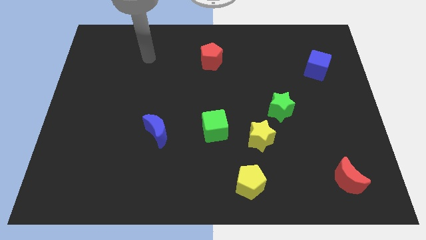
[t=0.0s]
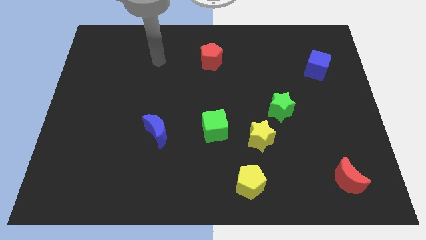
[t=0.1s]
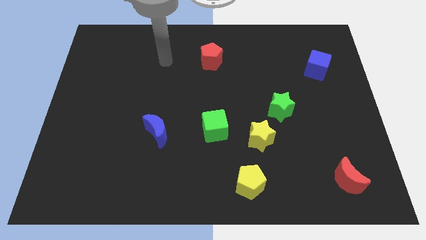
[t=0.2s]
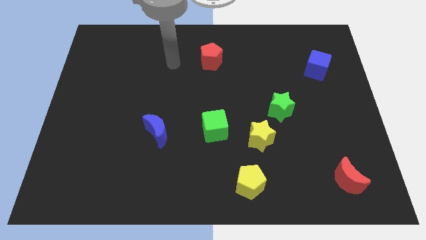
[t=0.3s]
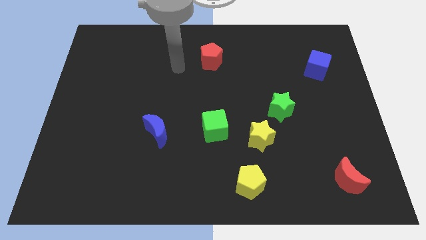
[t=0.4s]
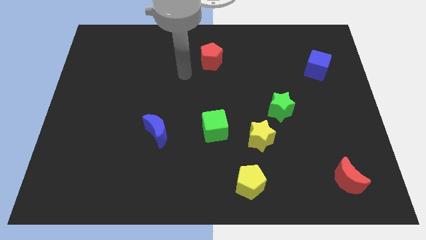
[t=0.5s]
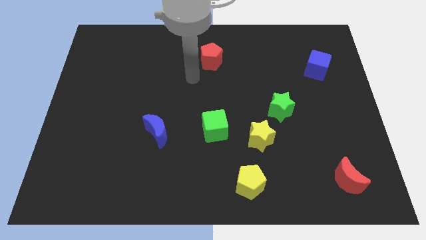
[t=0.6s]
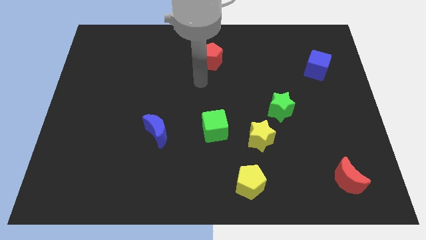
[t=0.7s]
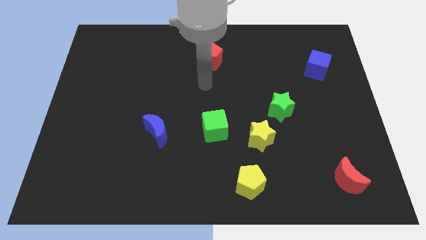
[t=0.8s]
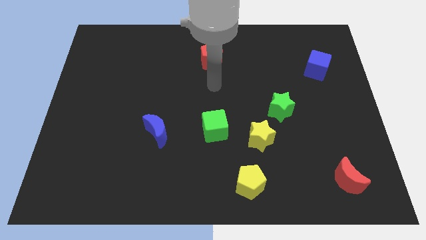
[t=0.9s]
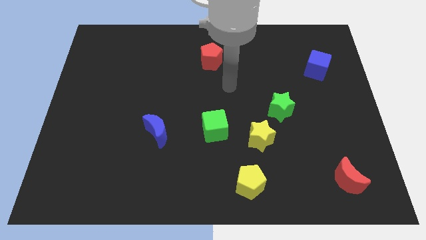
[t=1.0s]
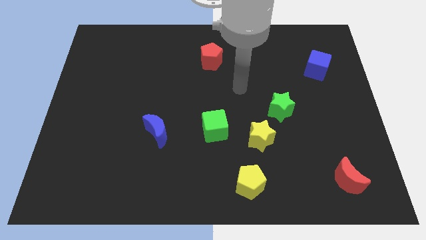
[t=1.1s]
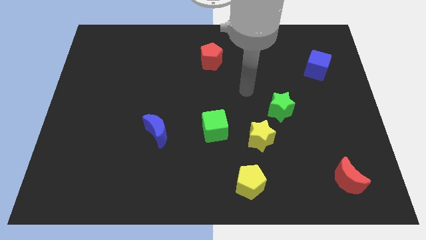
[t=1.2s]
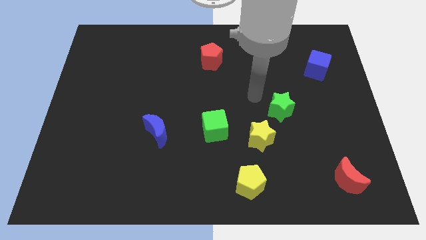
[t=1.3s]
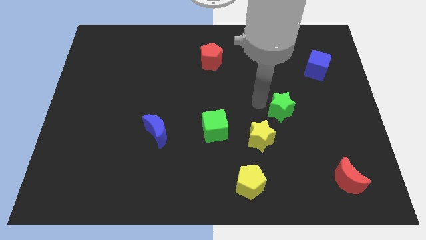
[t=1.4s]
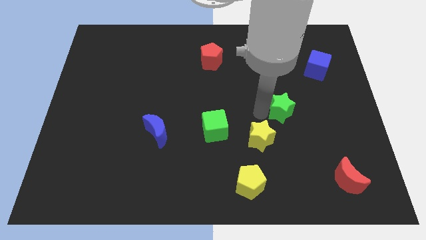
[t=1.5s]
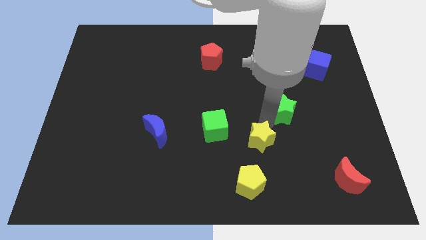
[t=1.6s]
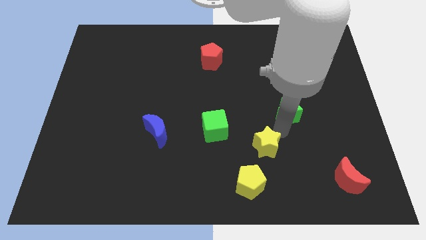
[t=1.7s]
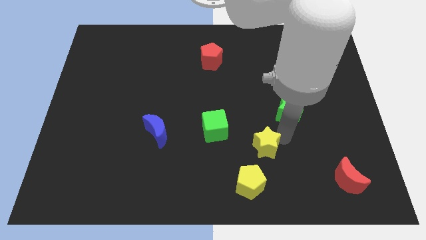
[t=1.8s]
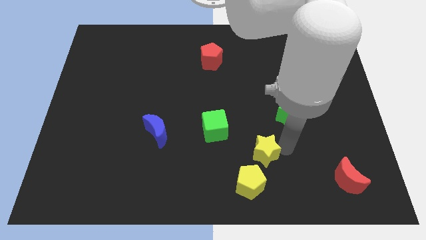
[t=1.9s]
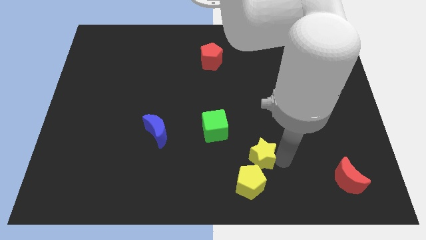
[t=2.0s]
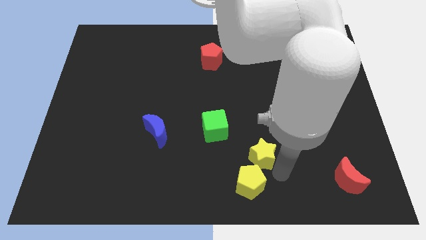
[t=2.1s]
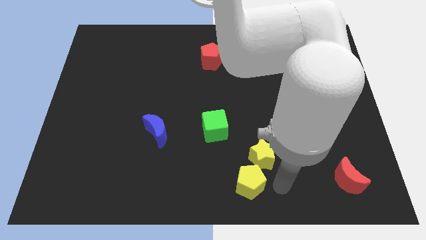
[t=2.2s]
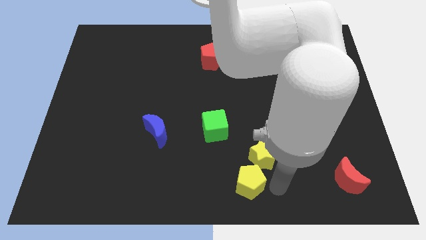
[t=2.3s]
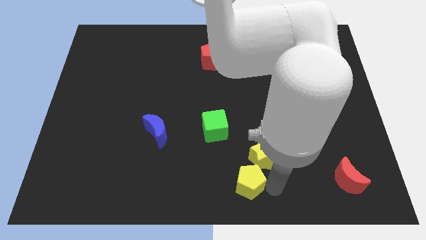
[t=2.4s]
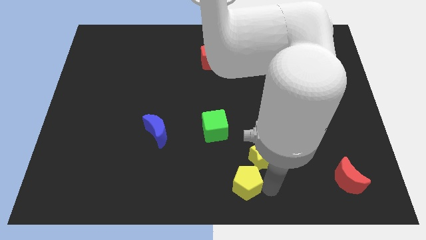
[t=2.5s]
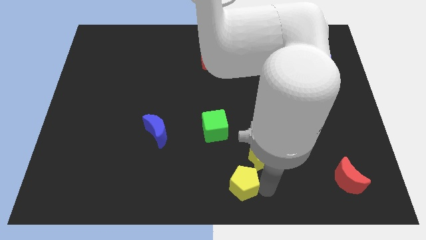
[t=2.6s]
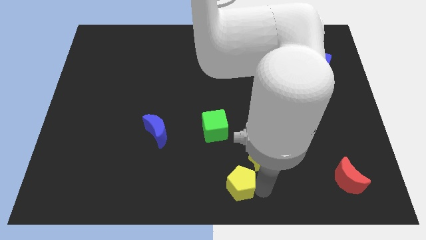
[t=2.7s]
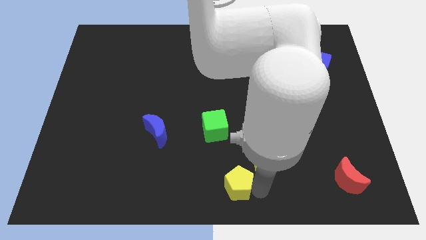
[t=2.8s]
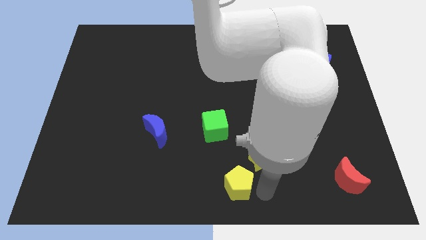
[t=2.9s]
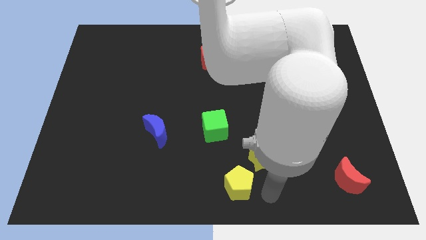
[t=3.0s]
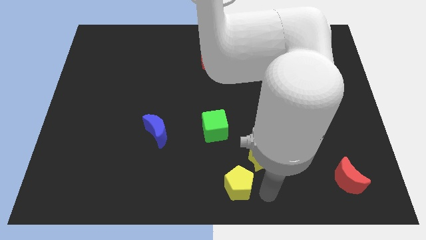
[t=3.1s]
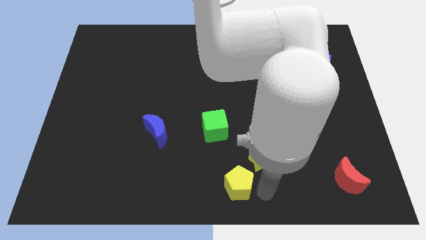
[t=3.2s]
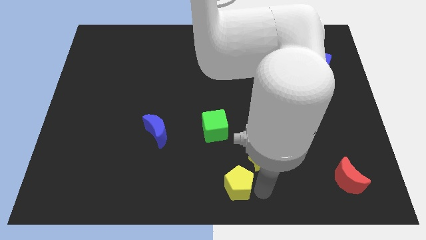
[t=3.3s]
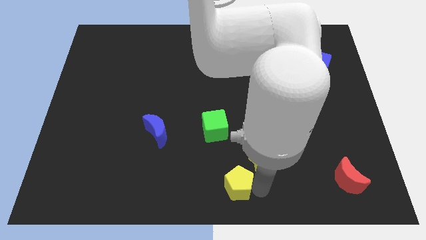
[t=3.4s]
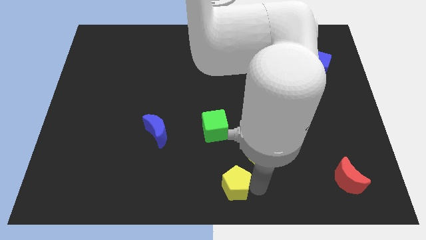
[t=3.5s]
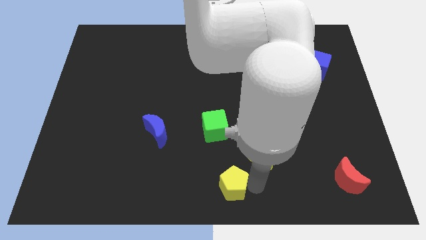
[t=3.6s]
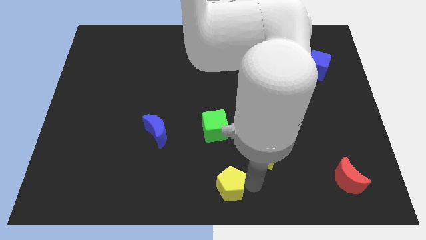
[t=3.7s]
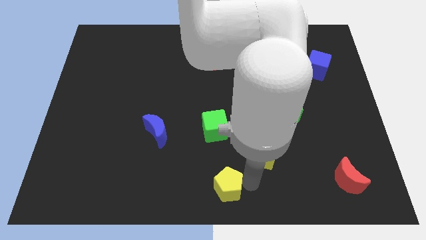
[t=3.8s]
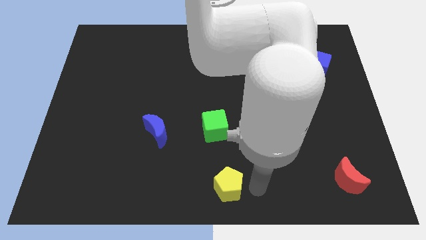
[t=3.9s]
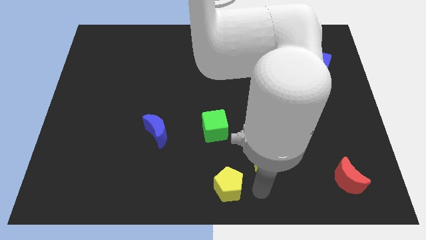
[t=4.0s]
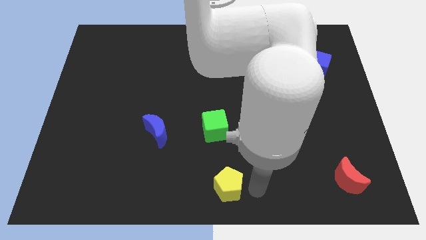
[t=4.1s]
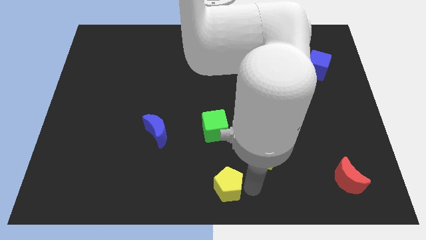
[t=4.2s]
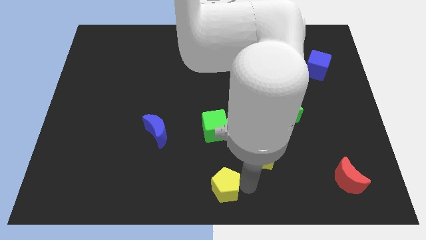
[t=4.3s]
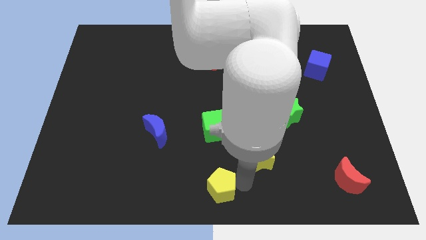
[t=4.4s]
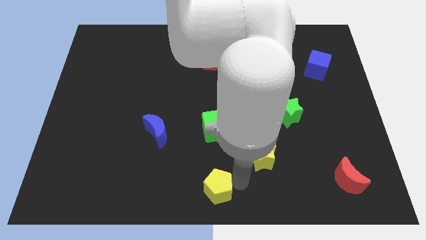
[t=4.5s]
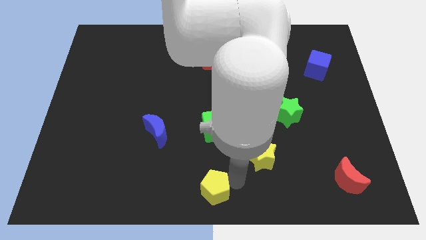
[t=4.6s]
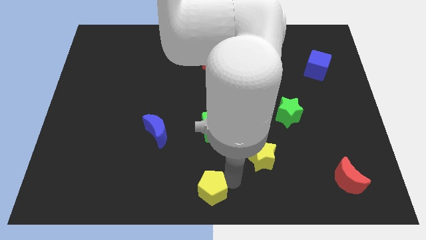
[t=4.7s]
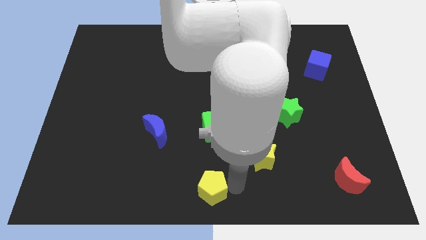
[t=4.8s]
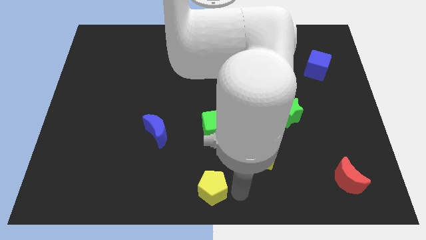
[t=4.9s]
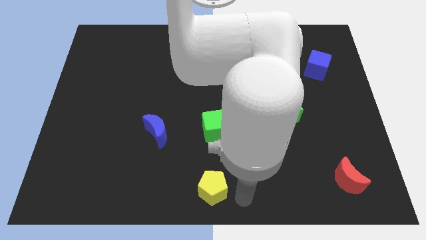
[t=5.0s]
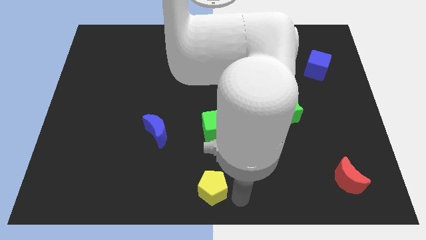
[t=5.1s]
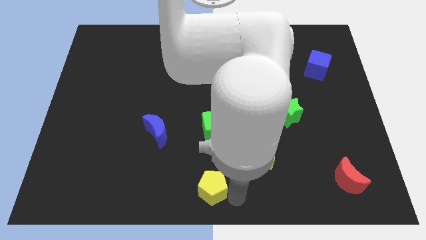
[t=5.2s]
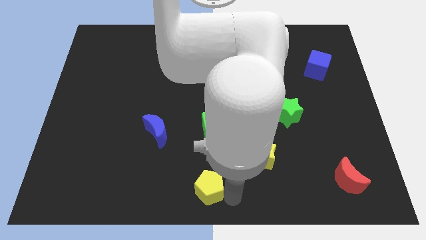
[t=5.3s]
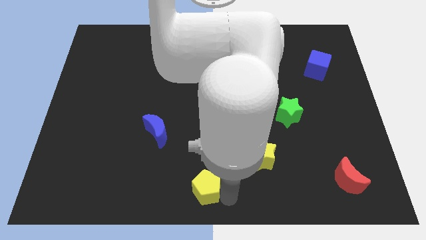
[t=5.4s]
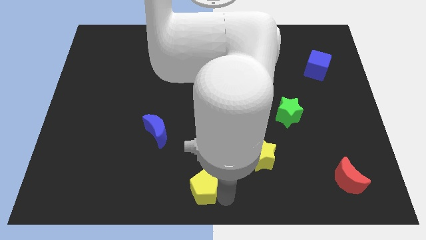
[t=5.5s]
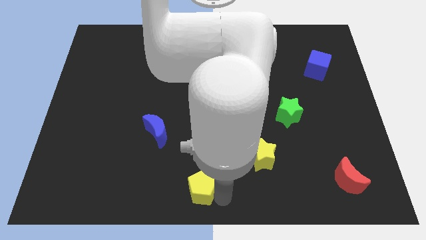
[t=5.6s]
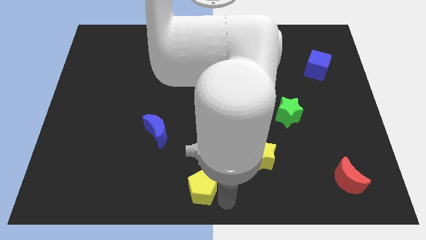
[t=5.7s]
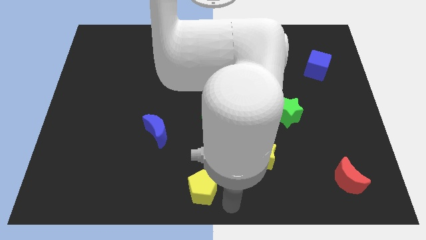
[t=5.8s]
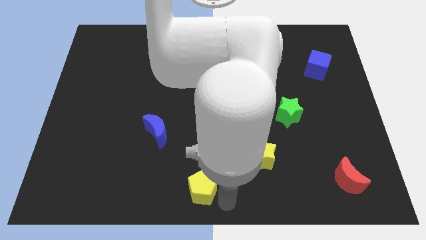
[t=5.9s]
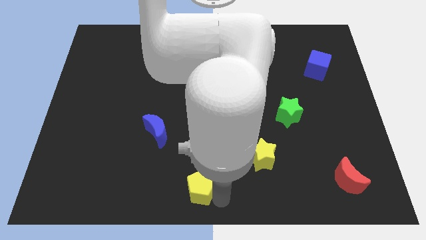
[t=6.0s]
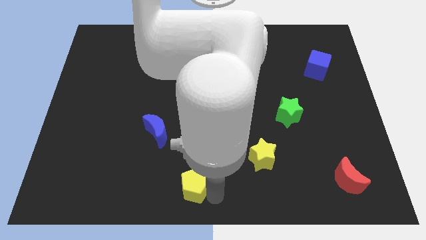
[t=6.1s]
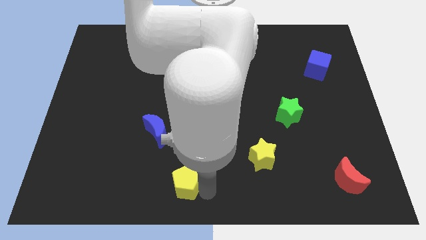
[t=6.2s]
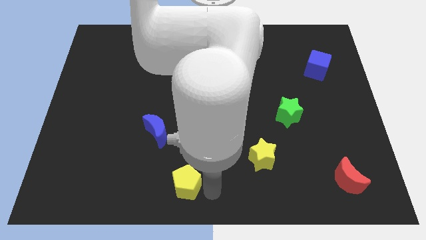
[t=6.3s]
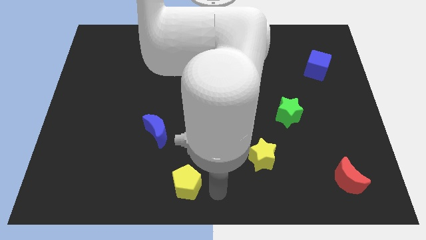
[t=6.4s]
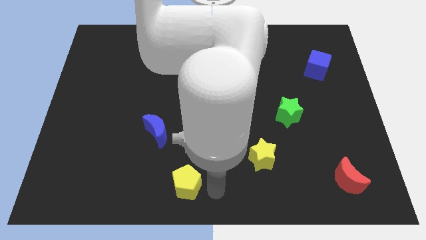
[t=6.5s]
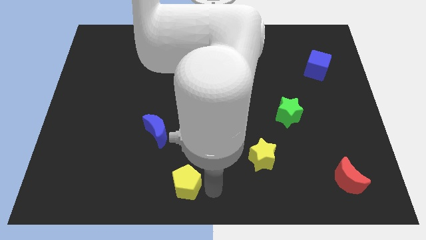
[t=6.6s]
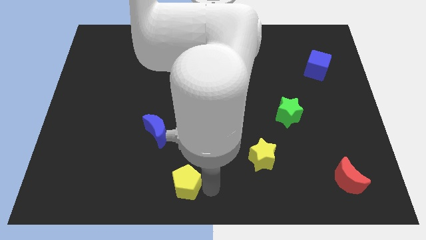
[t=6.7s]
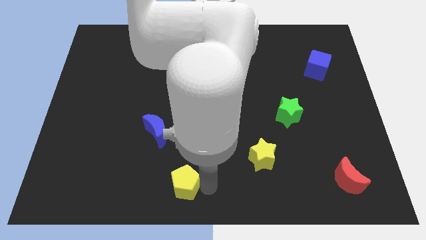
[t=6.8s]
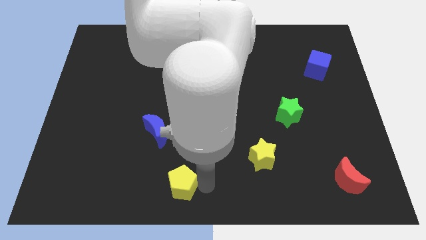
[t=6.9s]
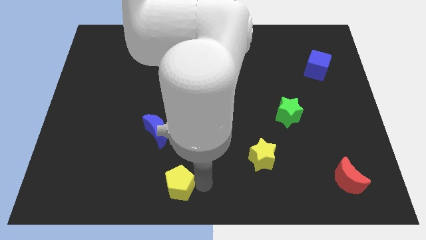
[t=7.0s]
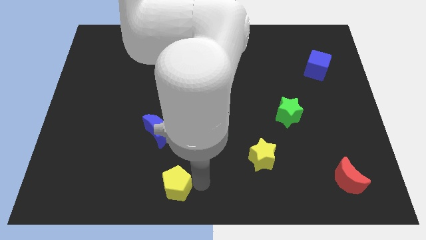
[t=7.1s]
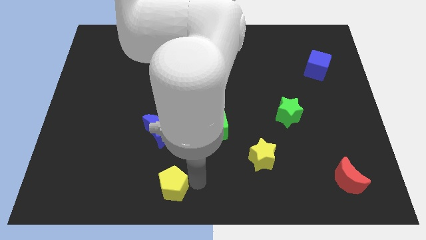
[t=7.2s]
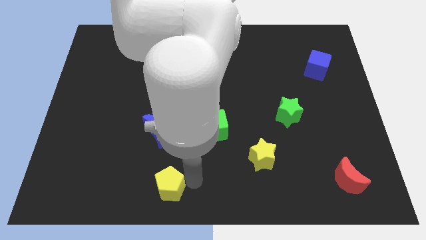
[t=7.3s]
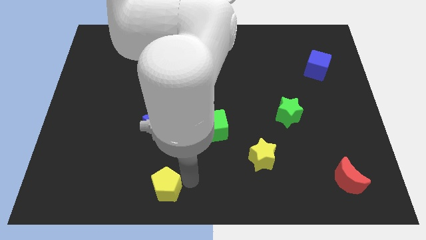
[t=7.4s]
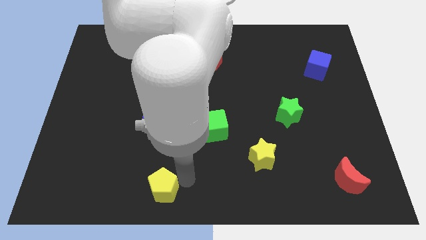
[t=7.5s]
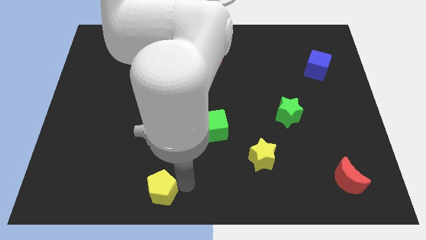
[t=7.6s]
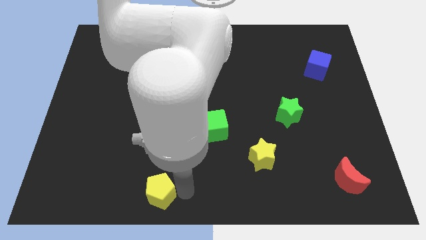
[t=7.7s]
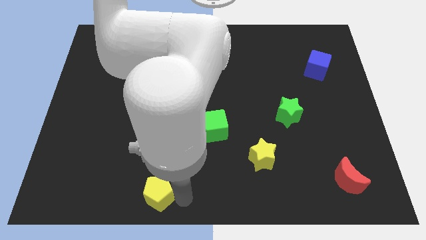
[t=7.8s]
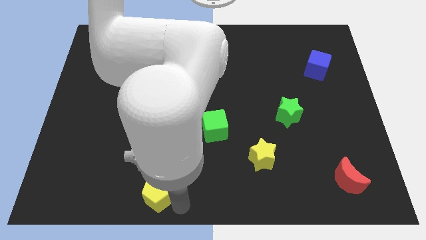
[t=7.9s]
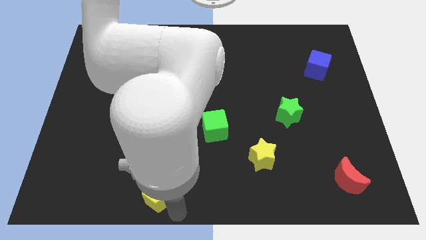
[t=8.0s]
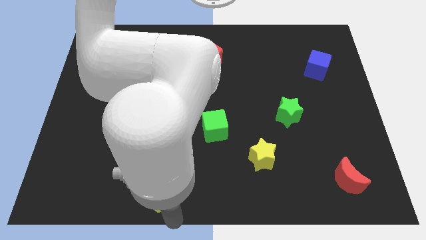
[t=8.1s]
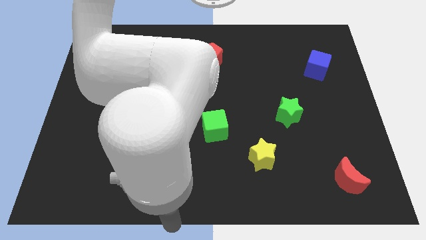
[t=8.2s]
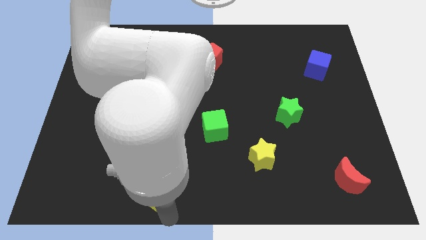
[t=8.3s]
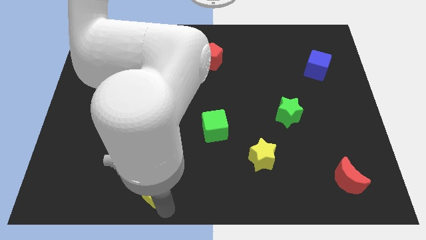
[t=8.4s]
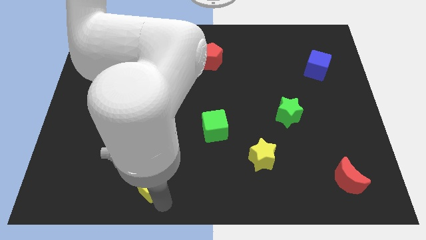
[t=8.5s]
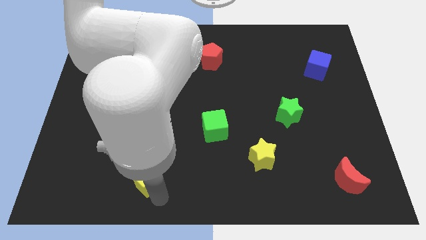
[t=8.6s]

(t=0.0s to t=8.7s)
slide the yellow pentagon to the left
